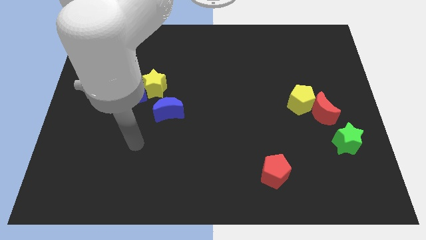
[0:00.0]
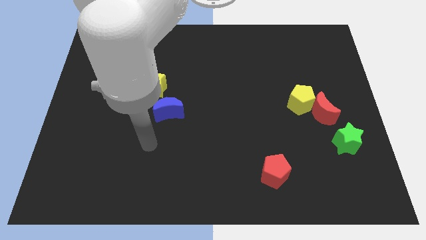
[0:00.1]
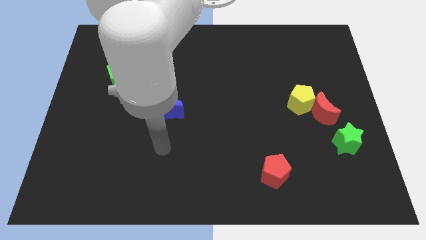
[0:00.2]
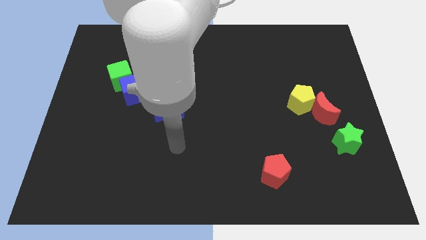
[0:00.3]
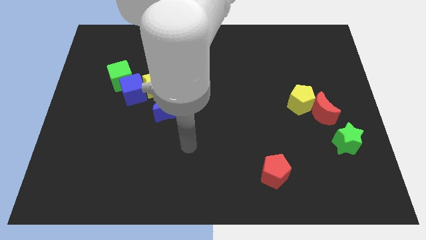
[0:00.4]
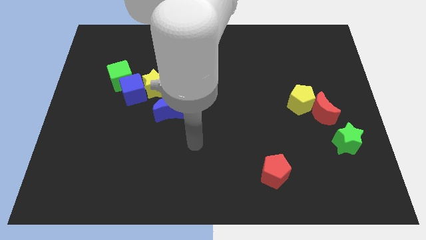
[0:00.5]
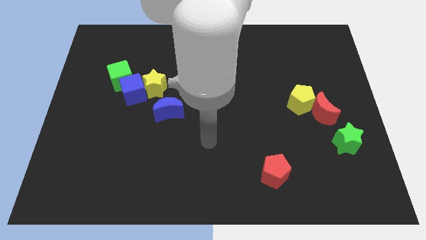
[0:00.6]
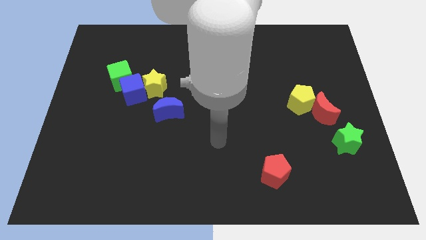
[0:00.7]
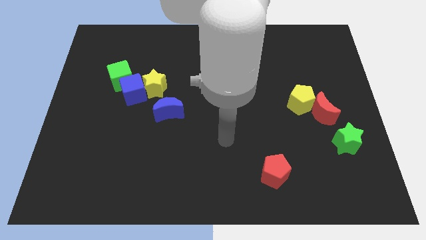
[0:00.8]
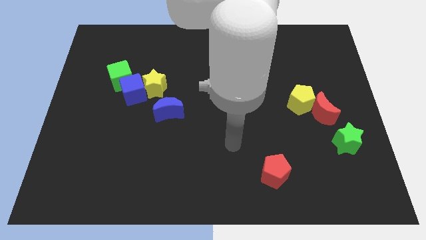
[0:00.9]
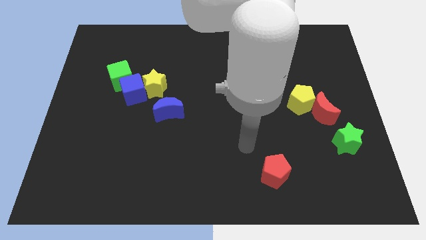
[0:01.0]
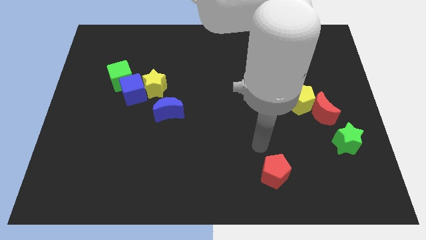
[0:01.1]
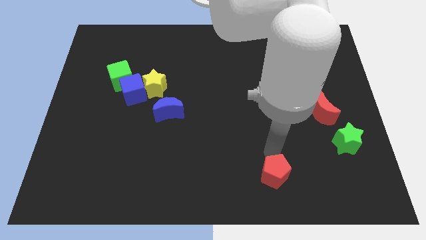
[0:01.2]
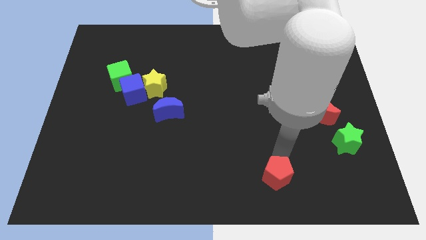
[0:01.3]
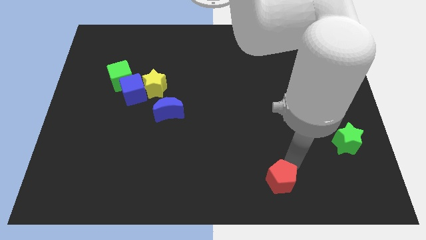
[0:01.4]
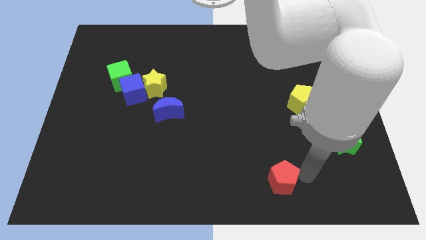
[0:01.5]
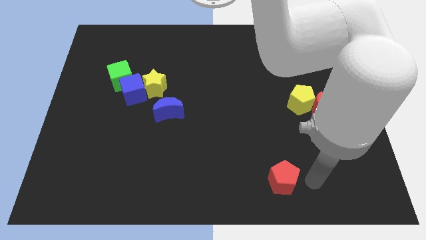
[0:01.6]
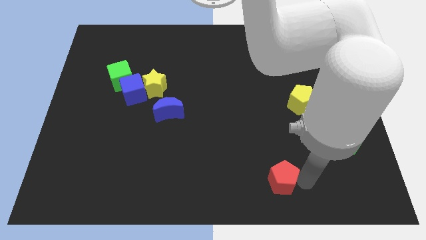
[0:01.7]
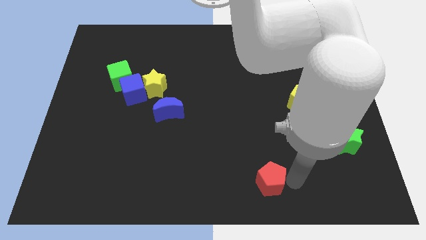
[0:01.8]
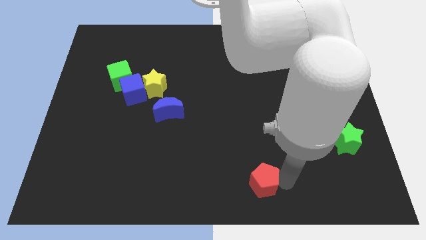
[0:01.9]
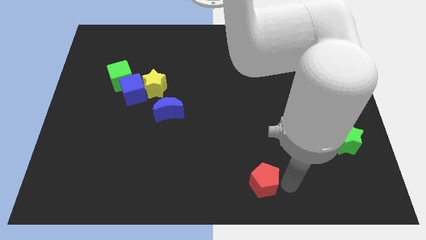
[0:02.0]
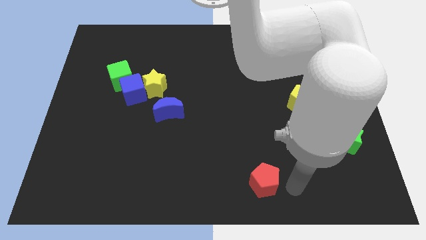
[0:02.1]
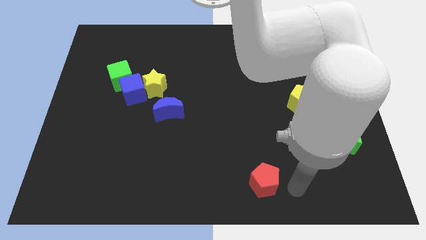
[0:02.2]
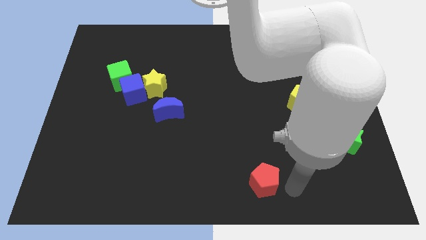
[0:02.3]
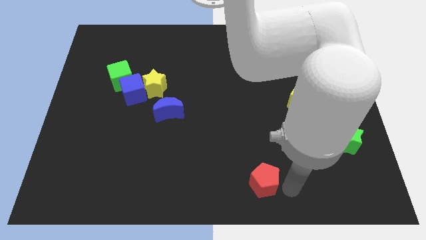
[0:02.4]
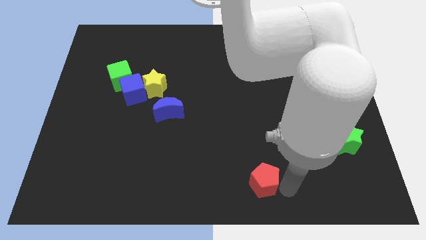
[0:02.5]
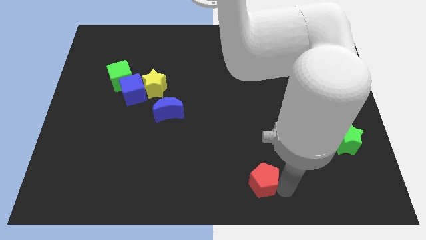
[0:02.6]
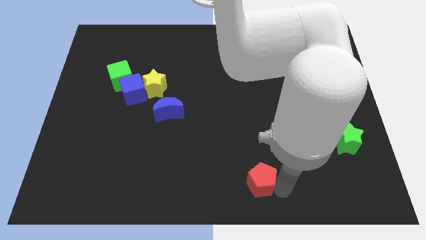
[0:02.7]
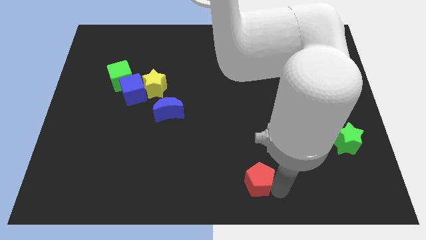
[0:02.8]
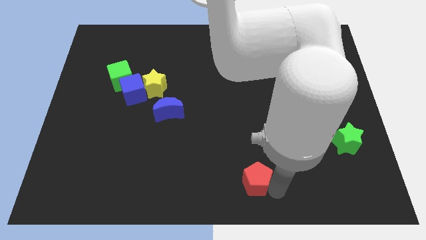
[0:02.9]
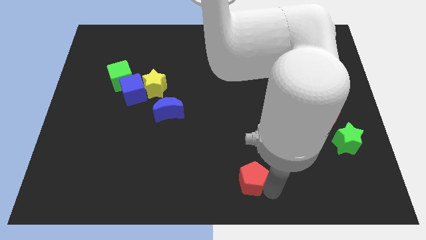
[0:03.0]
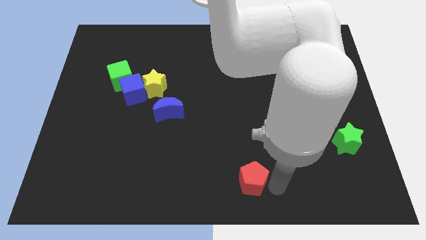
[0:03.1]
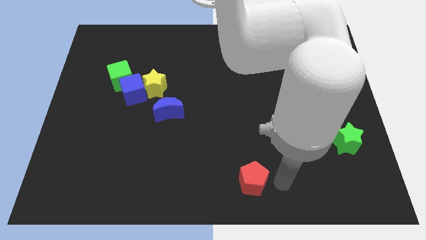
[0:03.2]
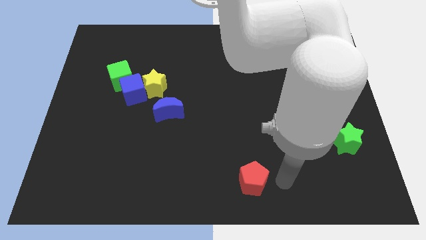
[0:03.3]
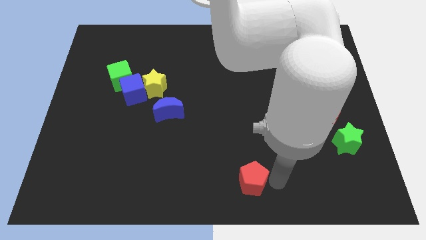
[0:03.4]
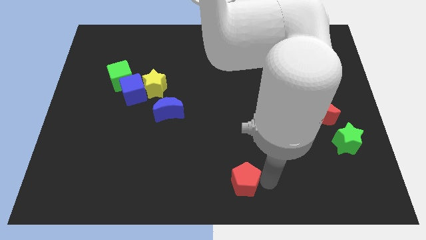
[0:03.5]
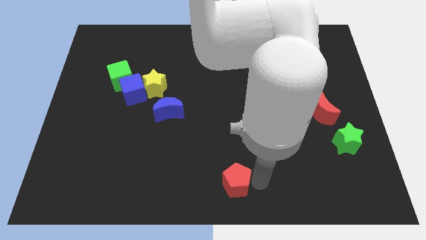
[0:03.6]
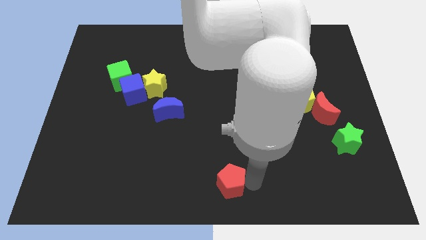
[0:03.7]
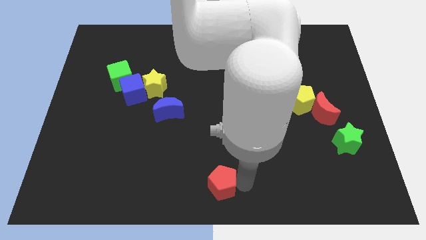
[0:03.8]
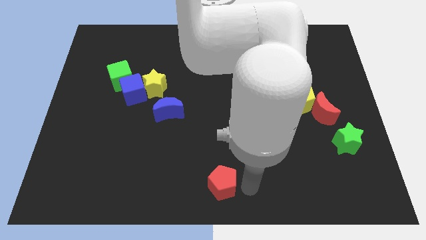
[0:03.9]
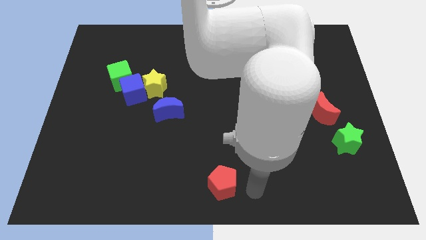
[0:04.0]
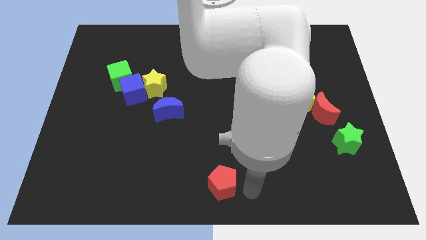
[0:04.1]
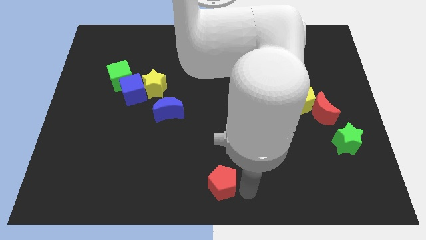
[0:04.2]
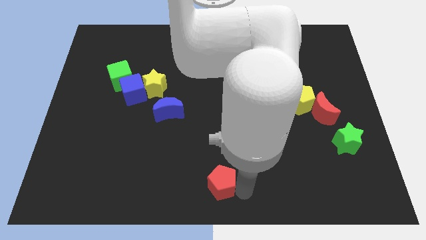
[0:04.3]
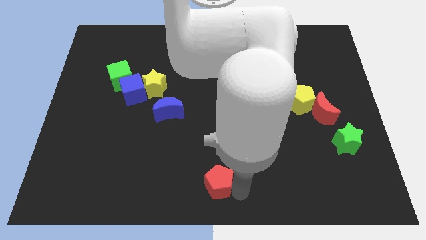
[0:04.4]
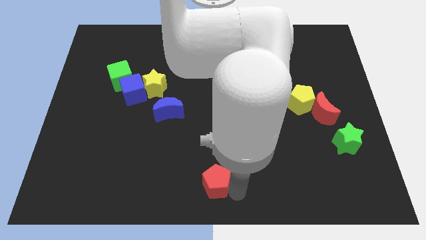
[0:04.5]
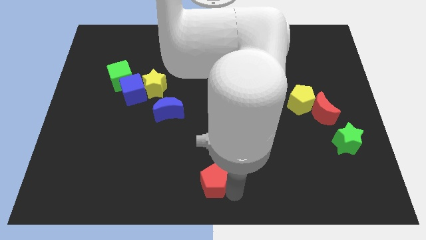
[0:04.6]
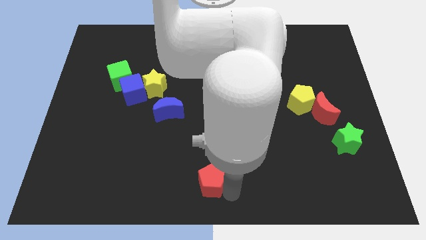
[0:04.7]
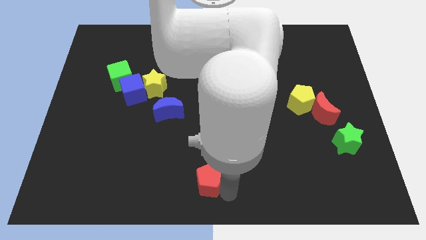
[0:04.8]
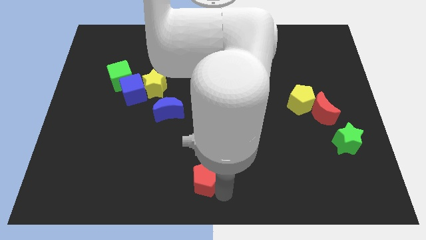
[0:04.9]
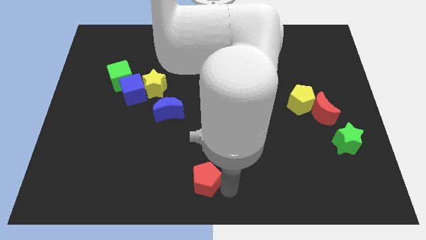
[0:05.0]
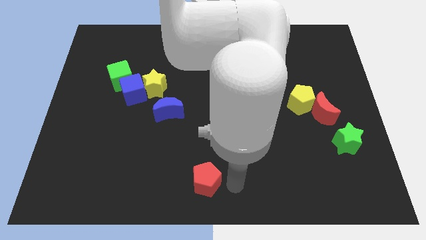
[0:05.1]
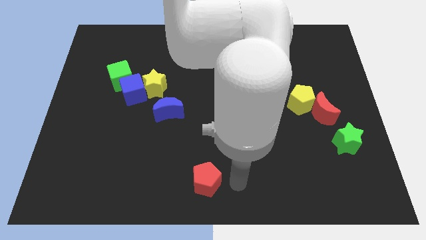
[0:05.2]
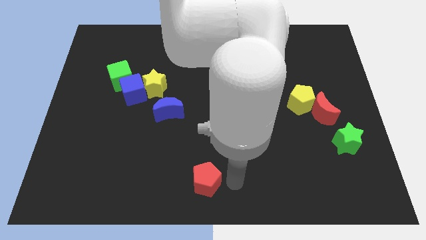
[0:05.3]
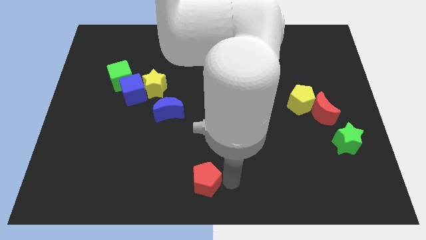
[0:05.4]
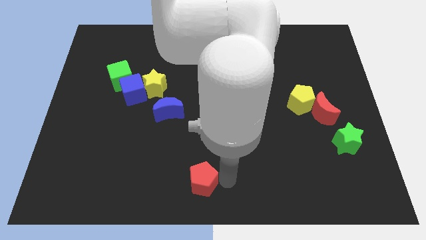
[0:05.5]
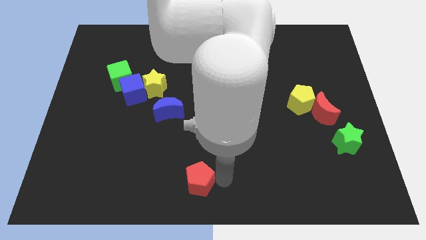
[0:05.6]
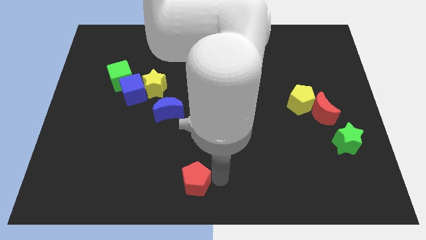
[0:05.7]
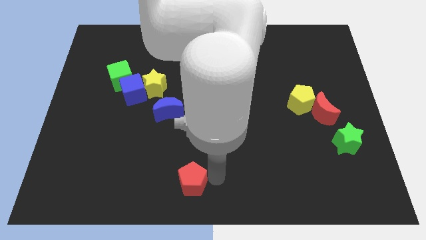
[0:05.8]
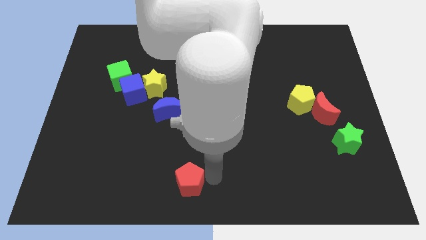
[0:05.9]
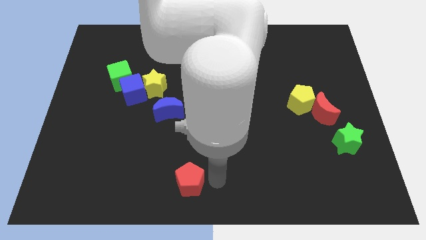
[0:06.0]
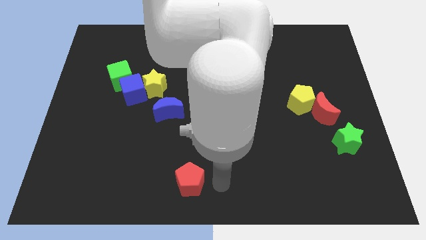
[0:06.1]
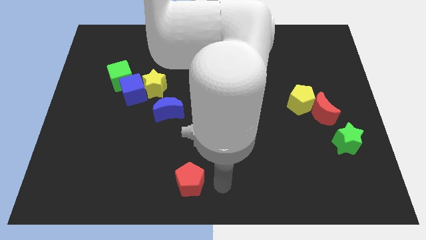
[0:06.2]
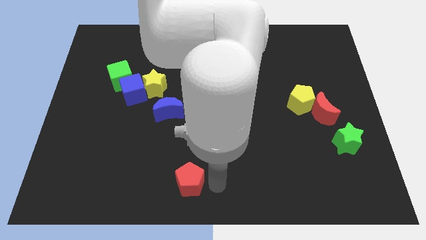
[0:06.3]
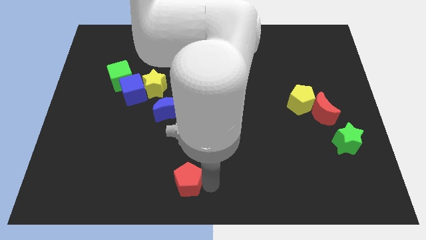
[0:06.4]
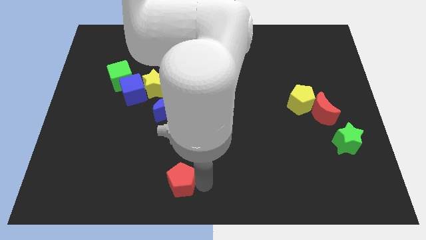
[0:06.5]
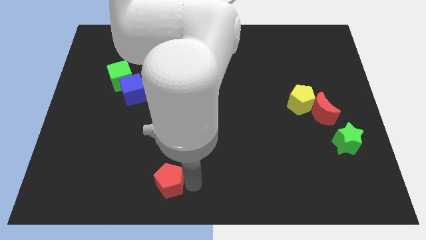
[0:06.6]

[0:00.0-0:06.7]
slide the red pentagon to the left

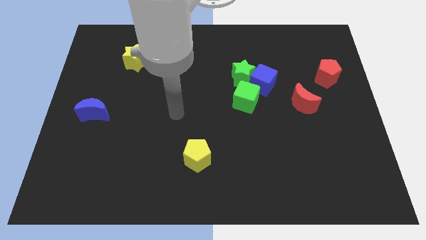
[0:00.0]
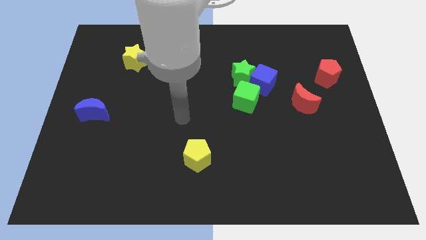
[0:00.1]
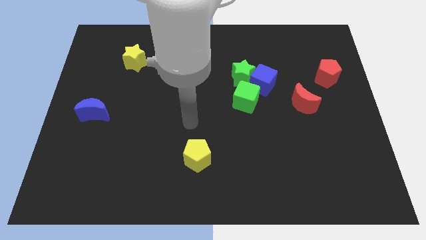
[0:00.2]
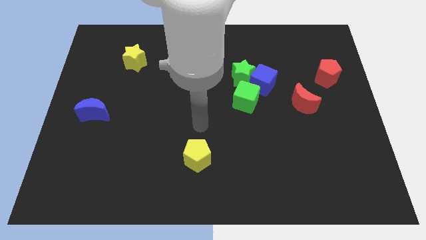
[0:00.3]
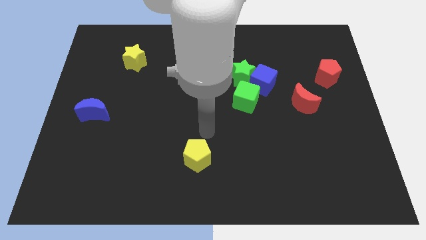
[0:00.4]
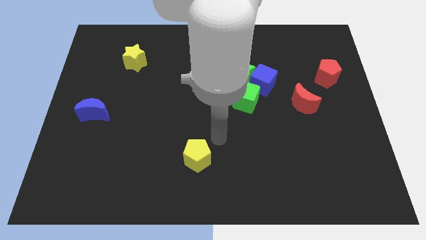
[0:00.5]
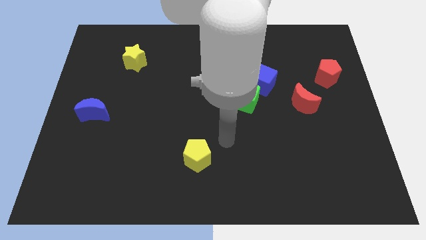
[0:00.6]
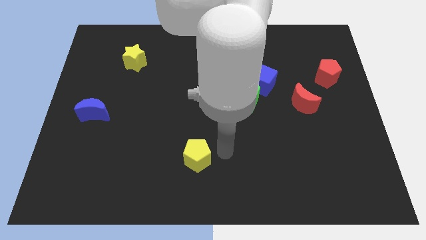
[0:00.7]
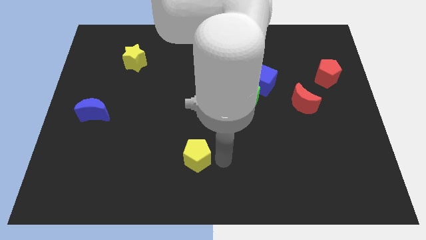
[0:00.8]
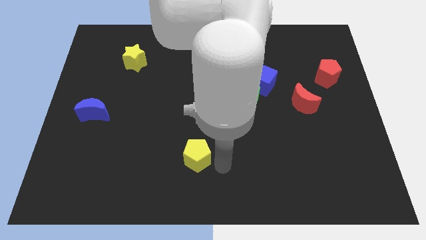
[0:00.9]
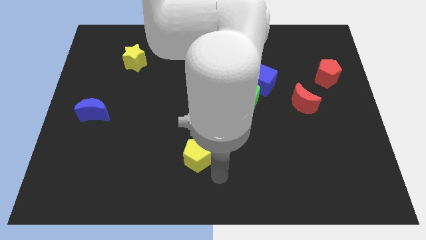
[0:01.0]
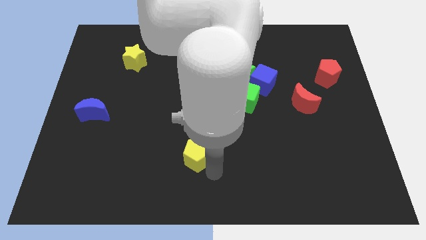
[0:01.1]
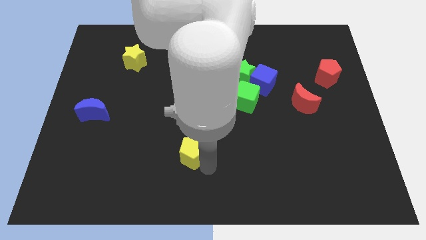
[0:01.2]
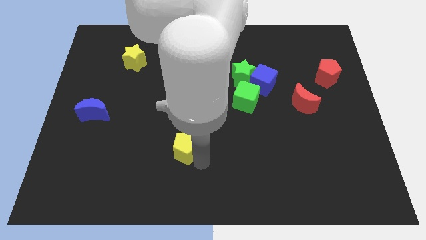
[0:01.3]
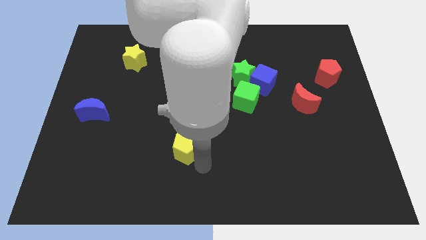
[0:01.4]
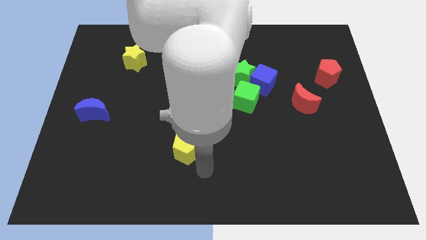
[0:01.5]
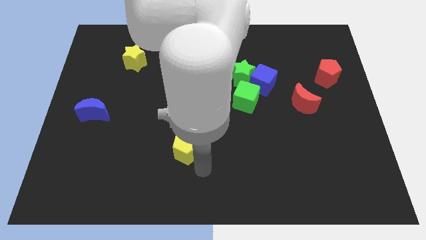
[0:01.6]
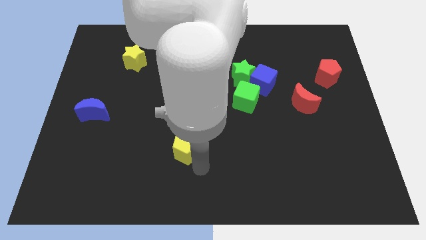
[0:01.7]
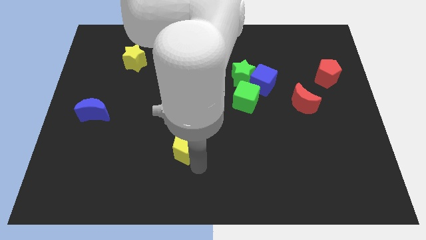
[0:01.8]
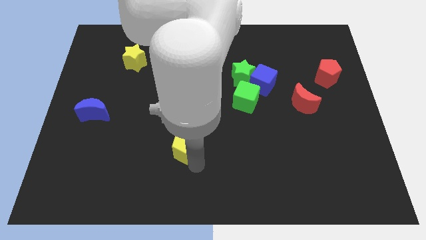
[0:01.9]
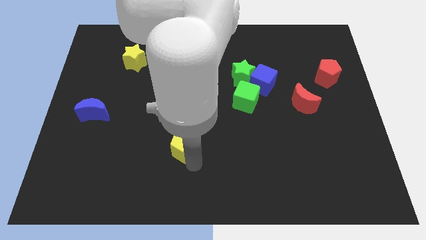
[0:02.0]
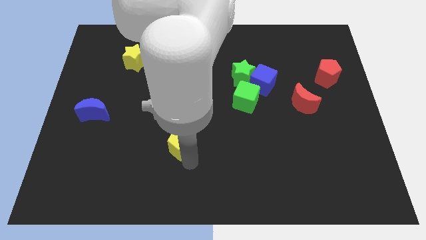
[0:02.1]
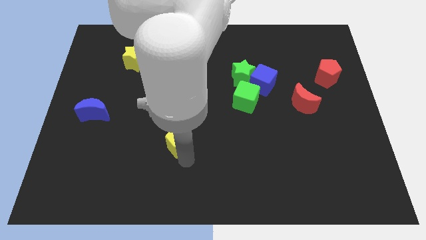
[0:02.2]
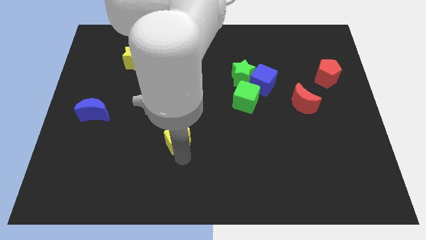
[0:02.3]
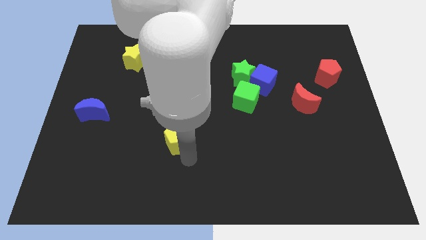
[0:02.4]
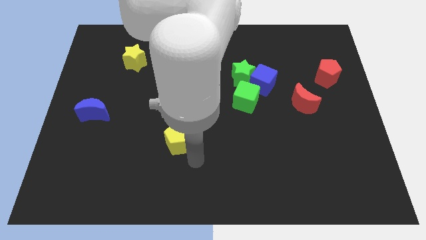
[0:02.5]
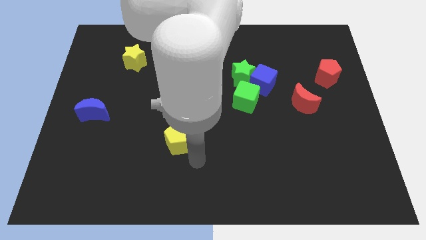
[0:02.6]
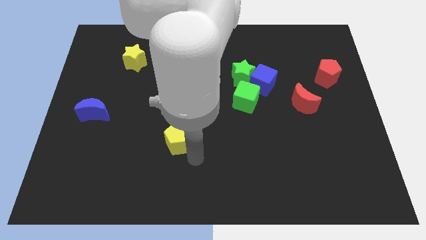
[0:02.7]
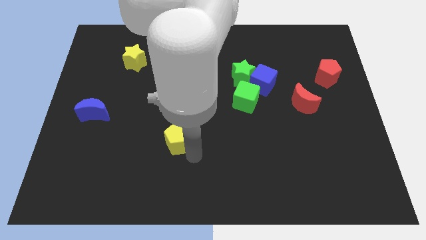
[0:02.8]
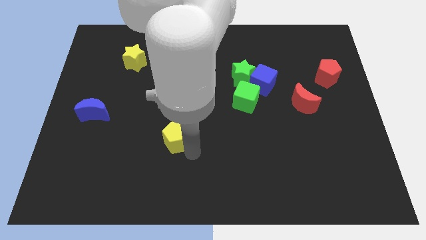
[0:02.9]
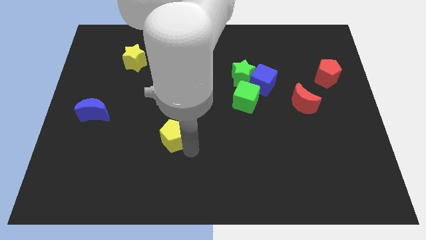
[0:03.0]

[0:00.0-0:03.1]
move the yellow pentagon slightly up and to the left
